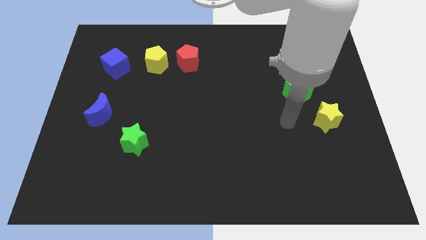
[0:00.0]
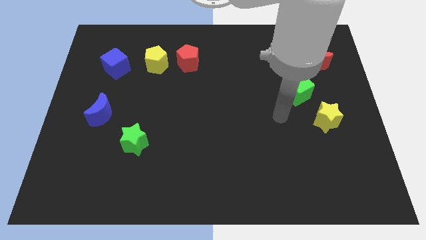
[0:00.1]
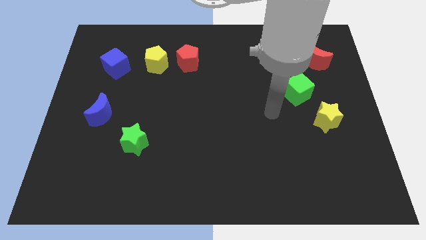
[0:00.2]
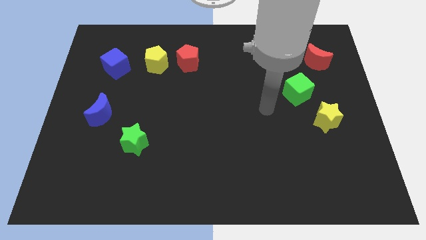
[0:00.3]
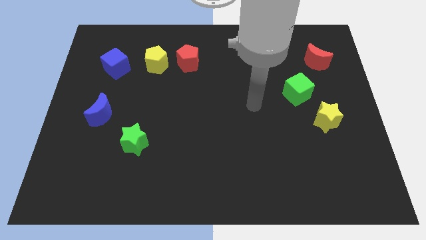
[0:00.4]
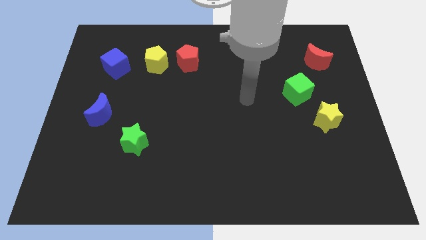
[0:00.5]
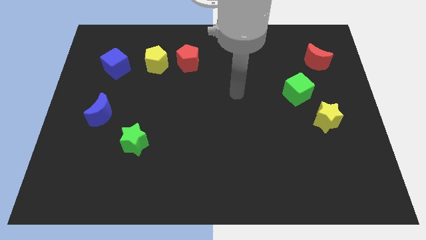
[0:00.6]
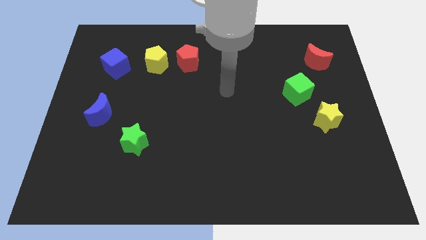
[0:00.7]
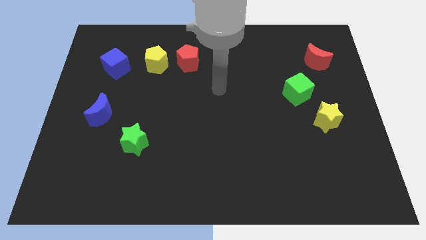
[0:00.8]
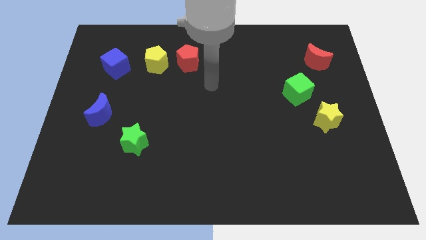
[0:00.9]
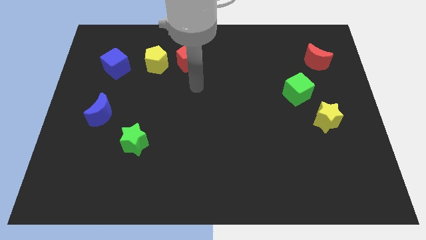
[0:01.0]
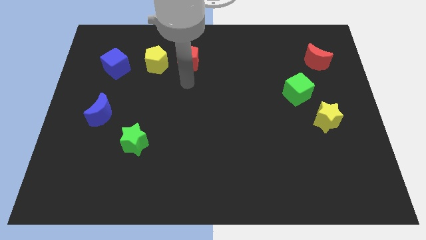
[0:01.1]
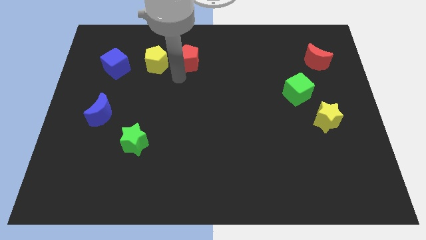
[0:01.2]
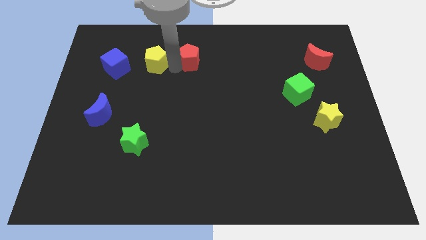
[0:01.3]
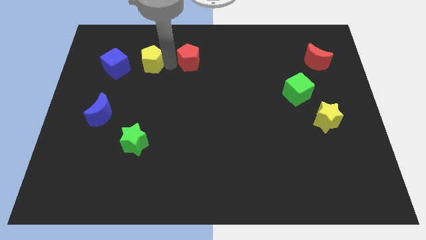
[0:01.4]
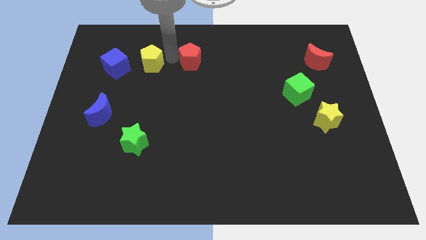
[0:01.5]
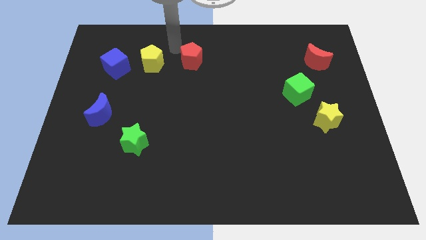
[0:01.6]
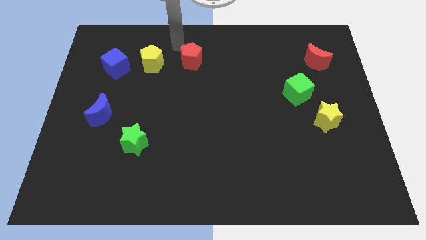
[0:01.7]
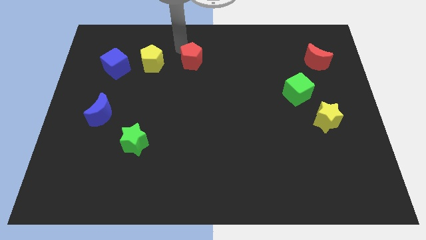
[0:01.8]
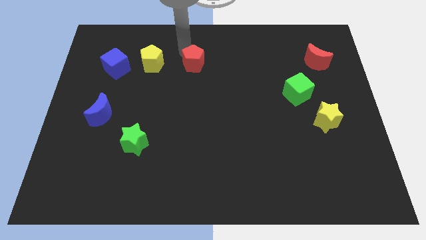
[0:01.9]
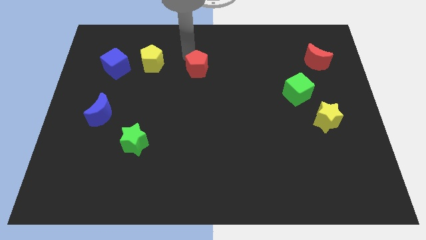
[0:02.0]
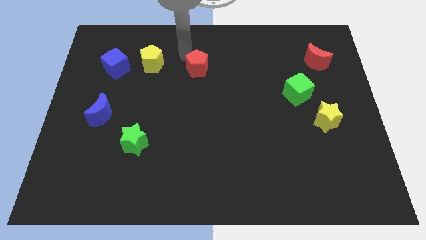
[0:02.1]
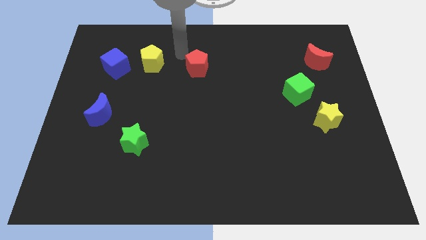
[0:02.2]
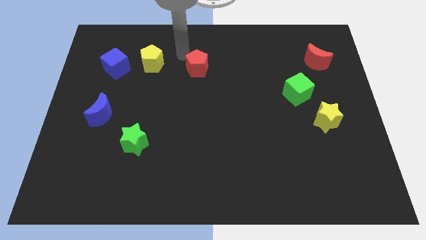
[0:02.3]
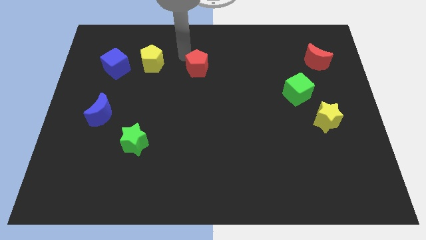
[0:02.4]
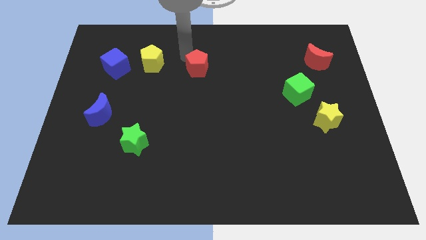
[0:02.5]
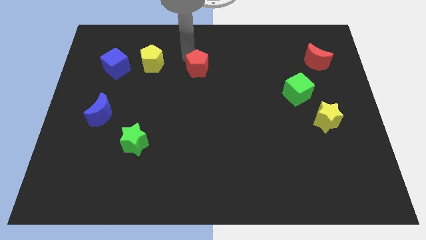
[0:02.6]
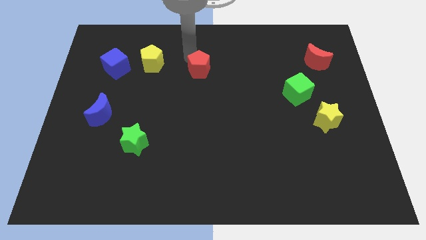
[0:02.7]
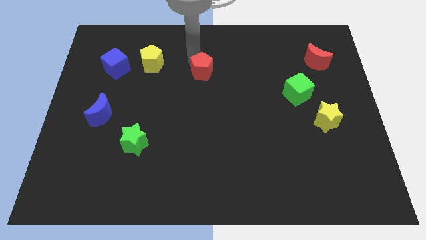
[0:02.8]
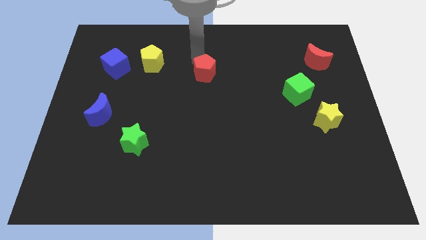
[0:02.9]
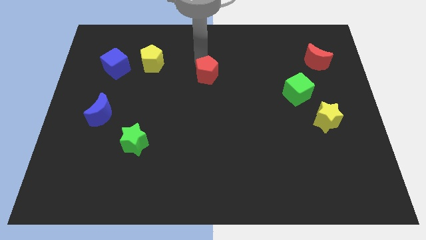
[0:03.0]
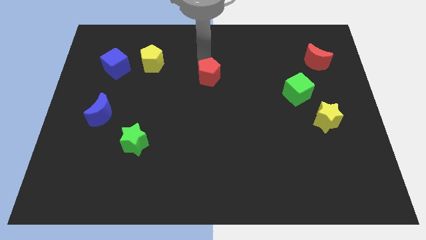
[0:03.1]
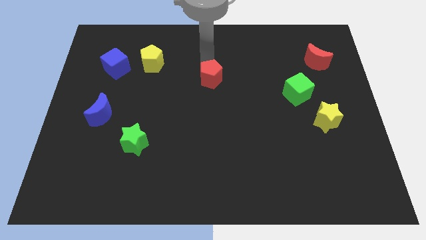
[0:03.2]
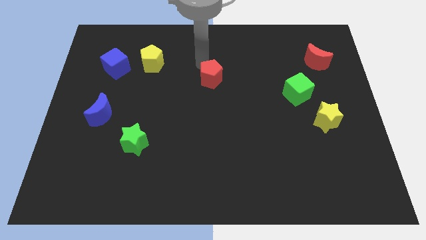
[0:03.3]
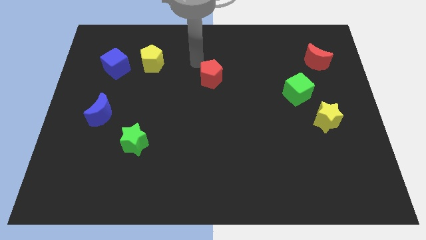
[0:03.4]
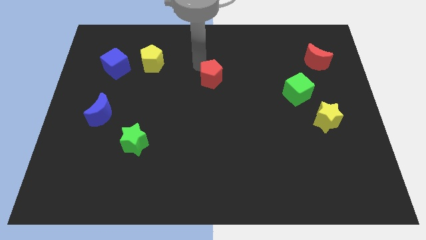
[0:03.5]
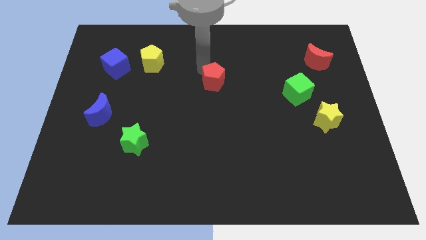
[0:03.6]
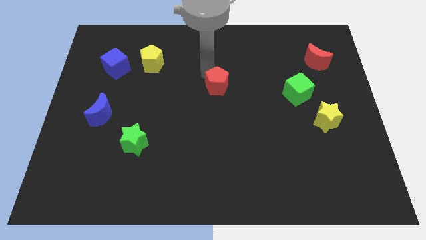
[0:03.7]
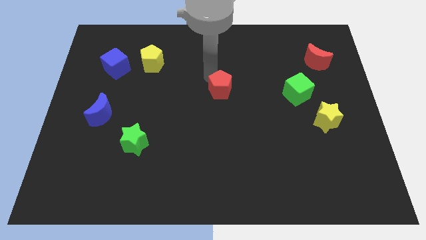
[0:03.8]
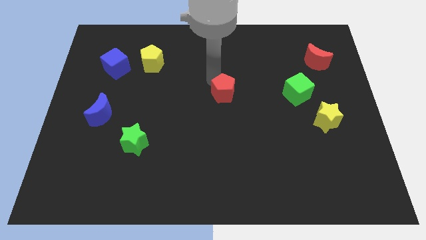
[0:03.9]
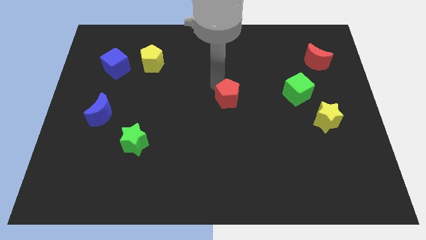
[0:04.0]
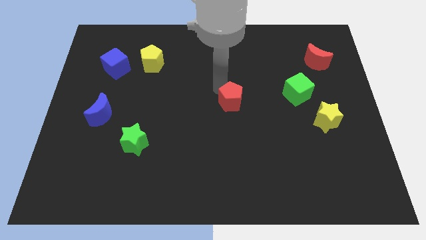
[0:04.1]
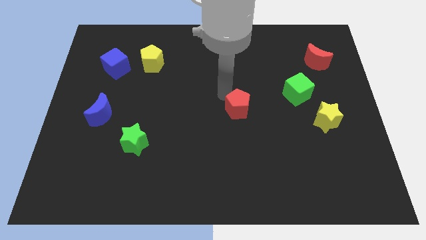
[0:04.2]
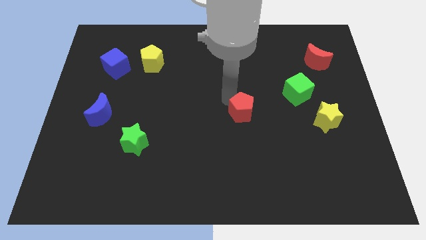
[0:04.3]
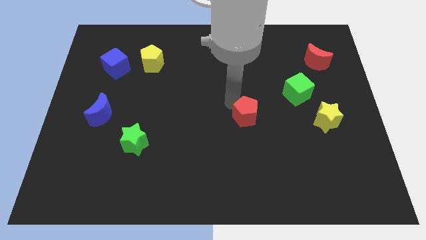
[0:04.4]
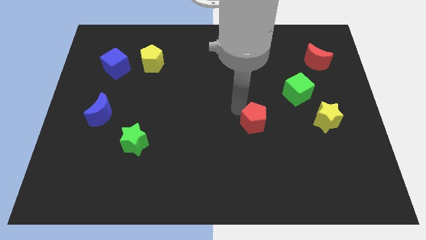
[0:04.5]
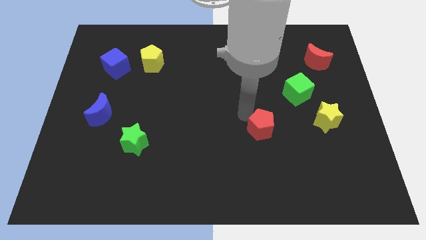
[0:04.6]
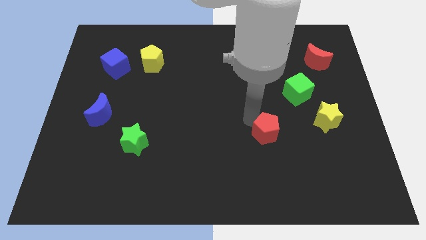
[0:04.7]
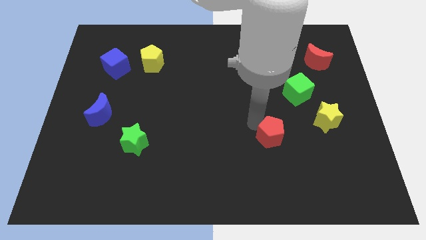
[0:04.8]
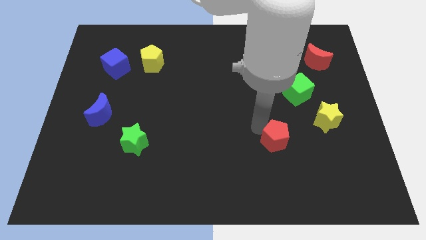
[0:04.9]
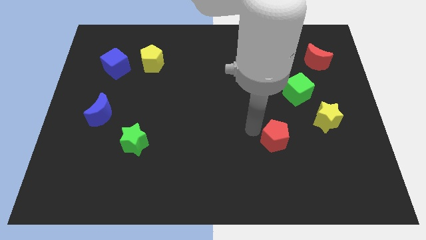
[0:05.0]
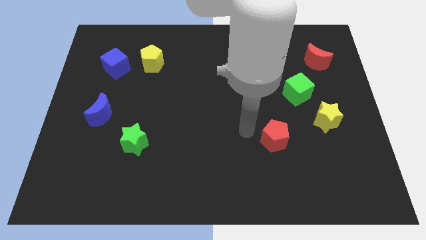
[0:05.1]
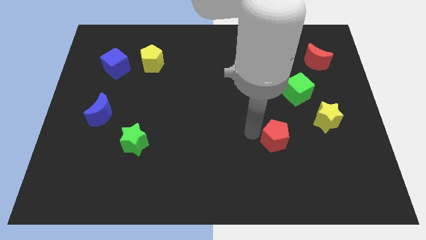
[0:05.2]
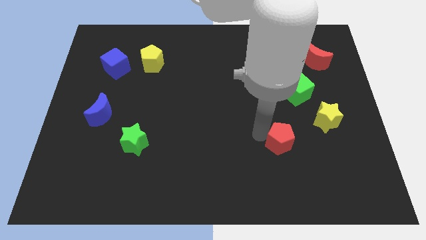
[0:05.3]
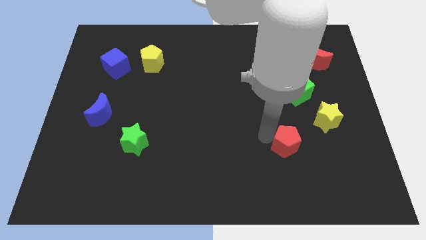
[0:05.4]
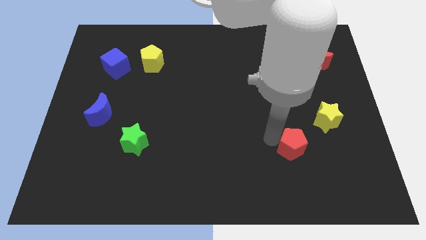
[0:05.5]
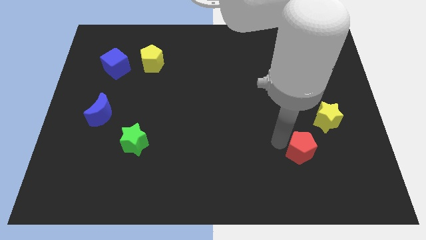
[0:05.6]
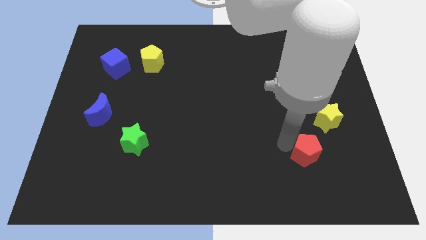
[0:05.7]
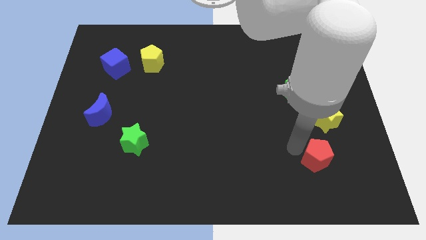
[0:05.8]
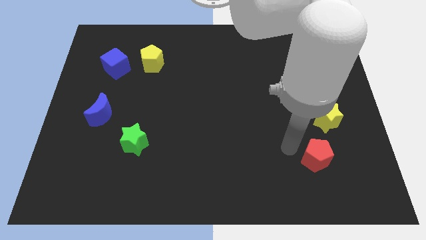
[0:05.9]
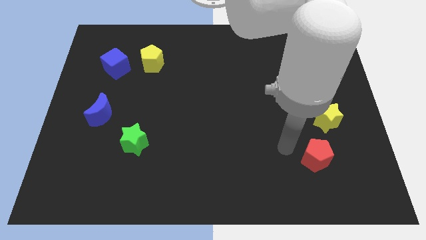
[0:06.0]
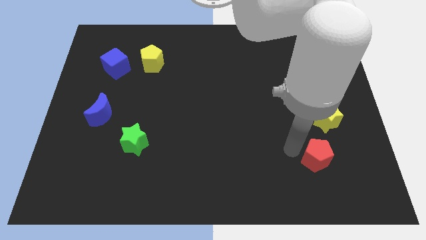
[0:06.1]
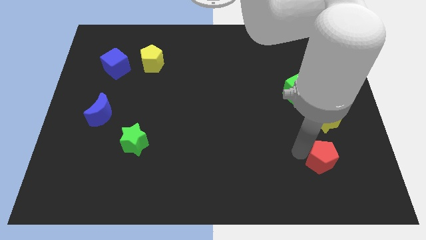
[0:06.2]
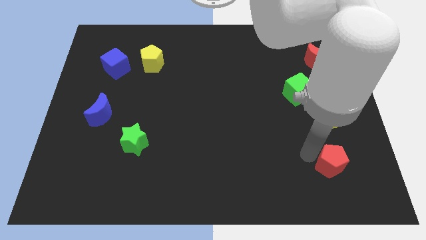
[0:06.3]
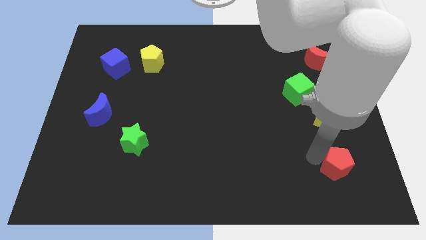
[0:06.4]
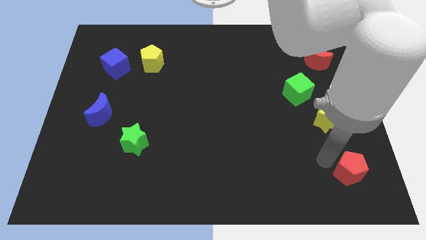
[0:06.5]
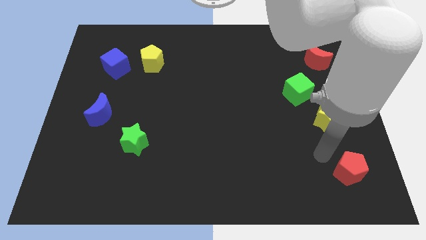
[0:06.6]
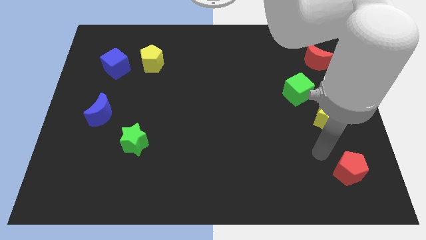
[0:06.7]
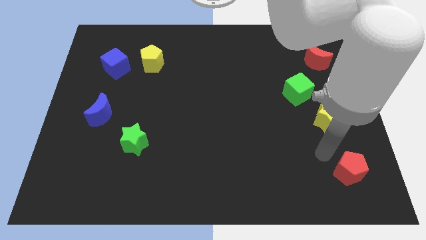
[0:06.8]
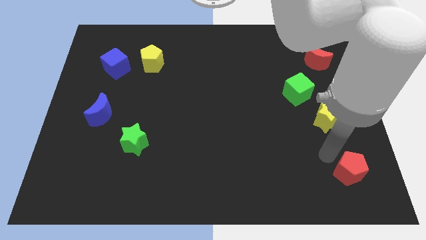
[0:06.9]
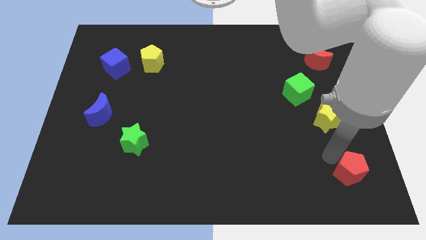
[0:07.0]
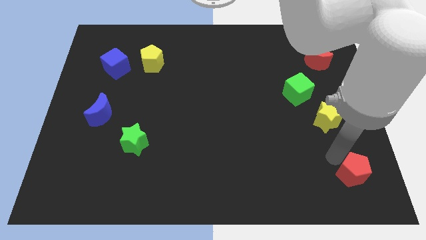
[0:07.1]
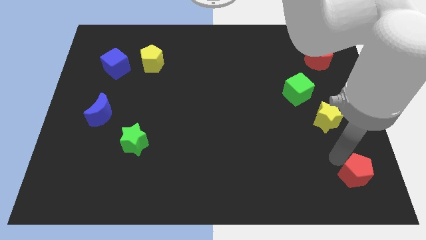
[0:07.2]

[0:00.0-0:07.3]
put the red pentagon to the bottom right
